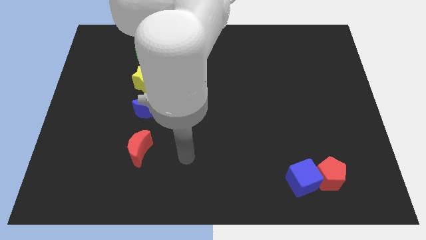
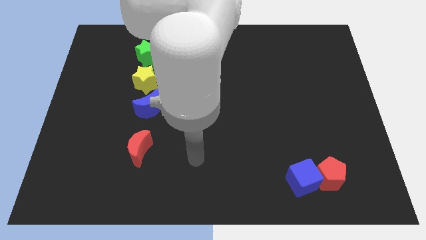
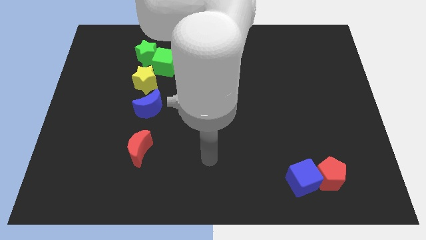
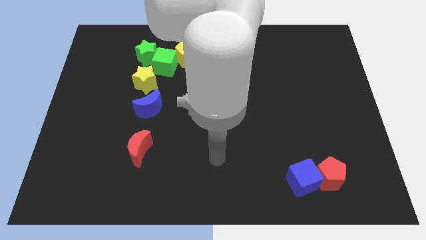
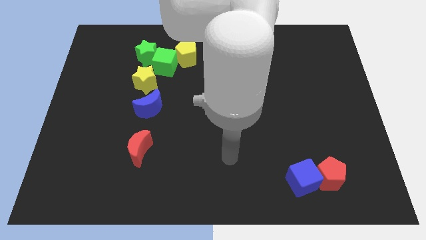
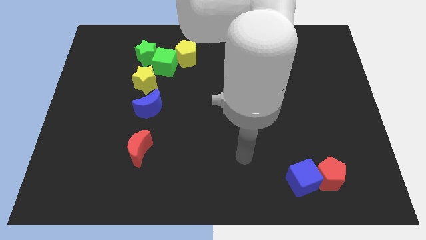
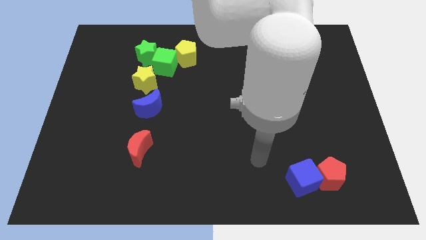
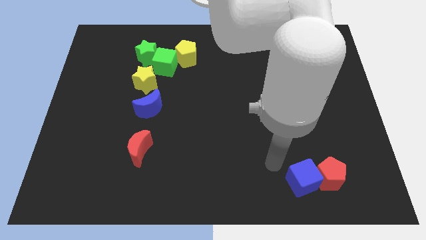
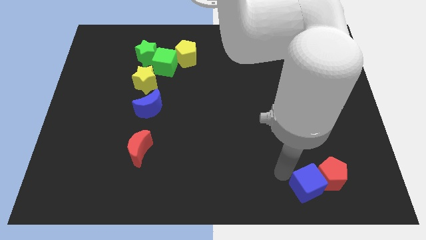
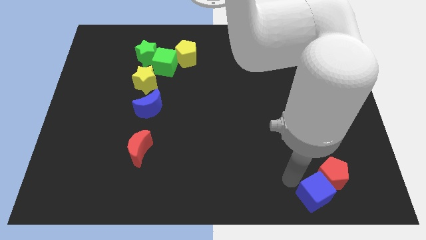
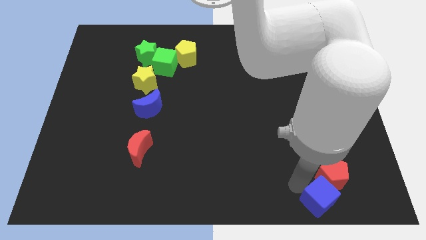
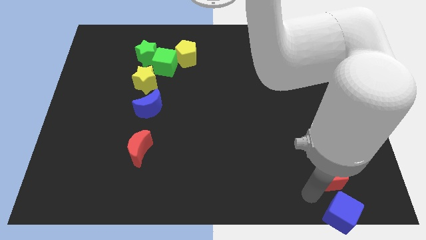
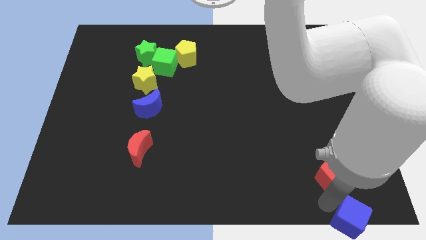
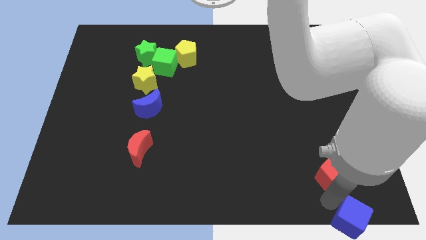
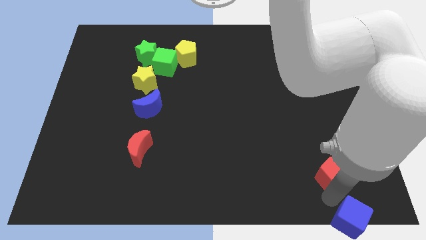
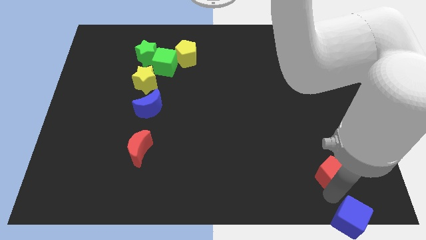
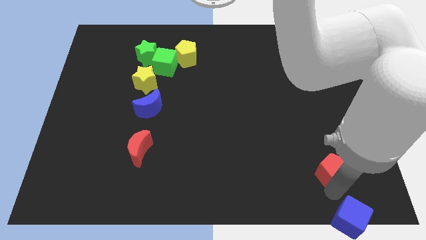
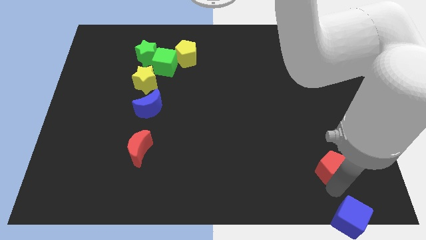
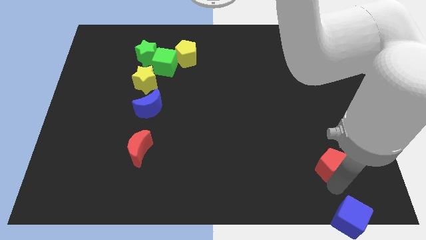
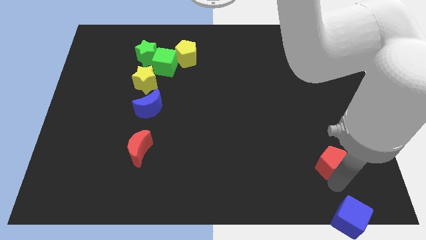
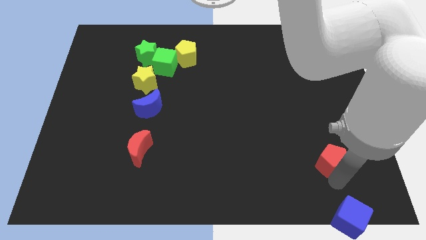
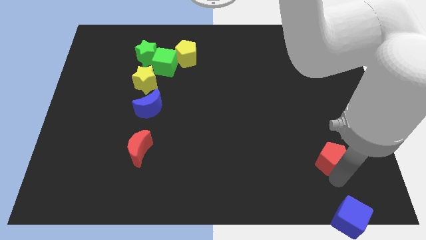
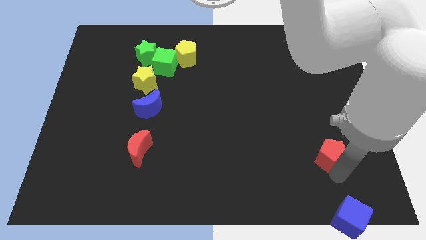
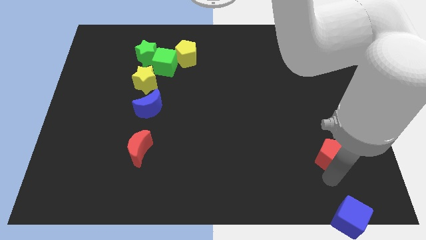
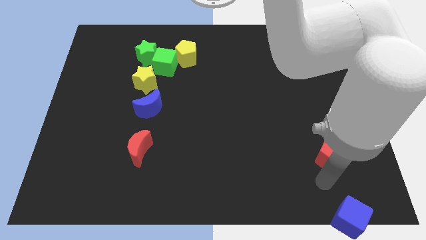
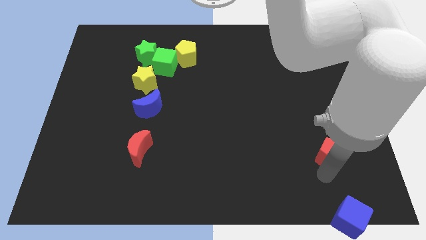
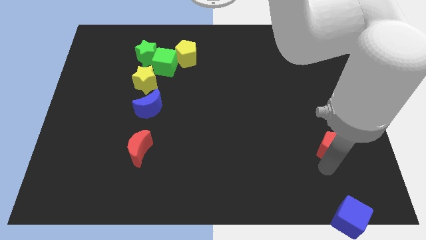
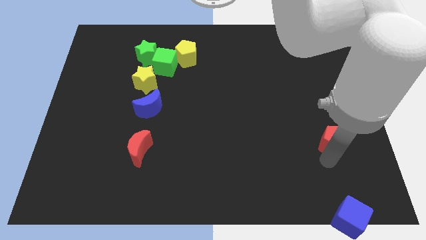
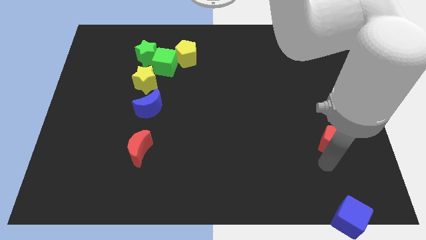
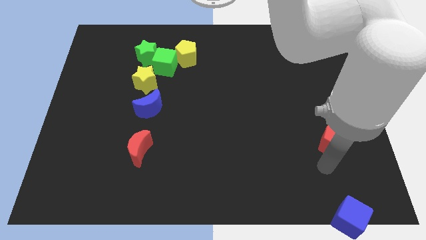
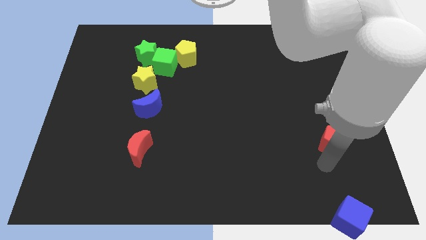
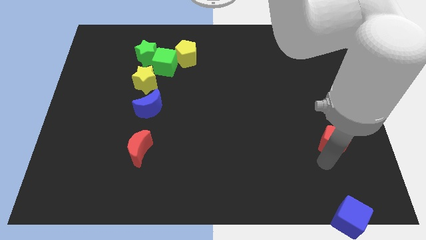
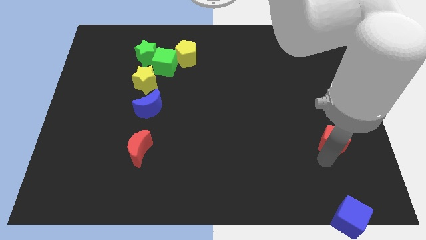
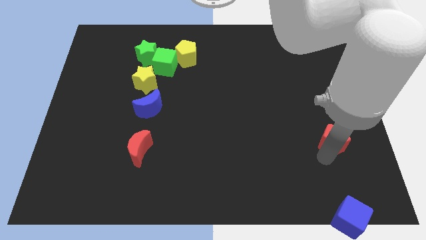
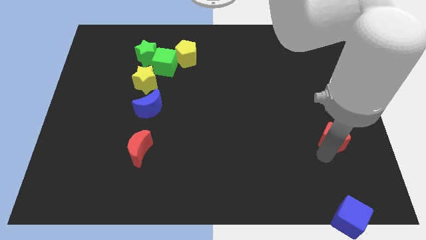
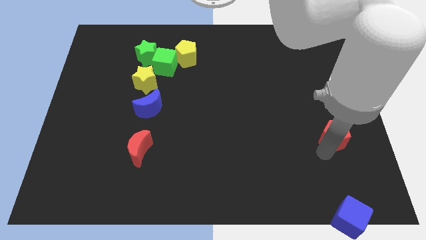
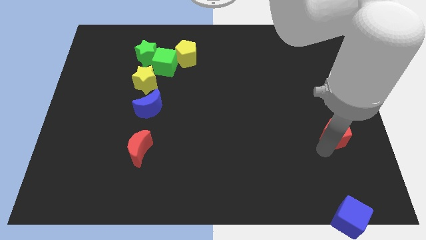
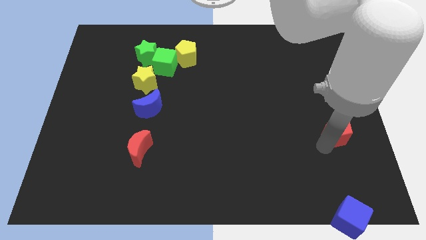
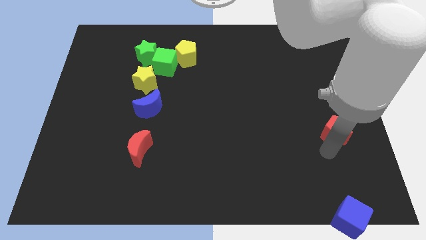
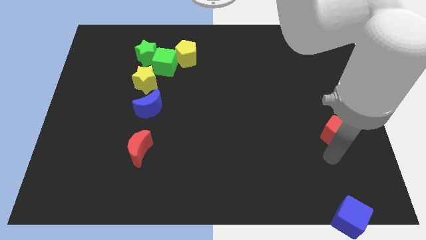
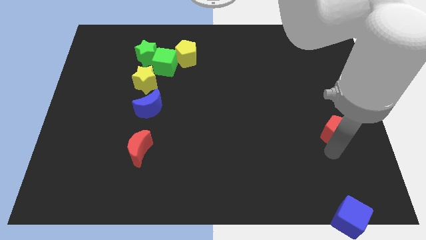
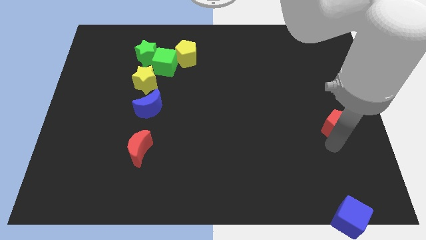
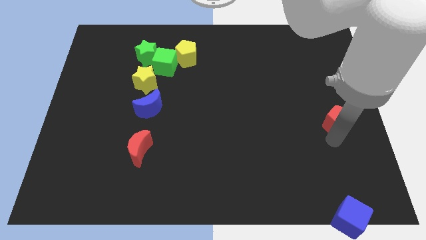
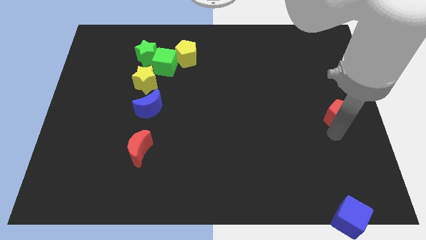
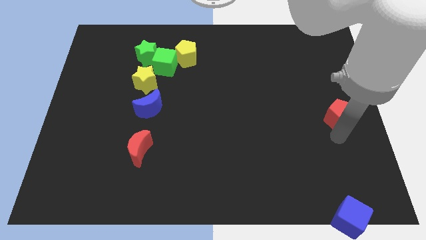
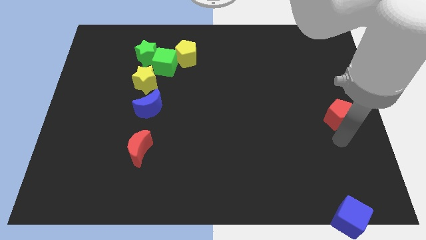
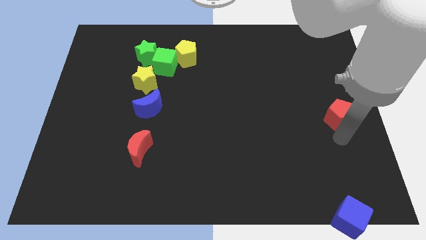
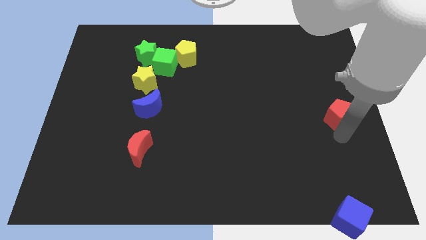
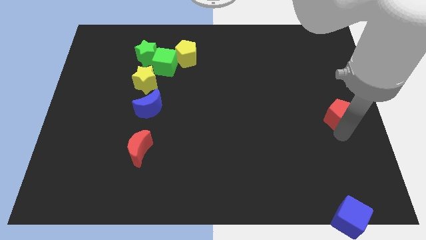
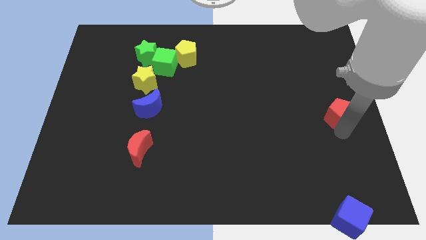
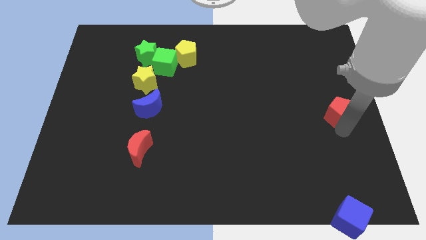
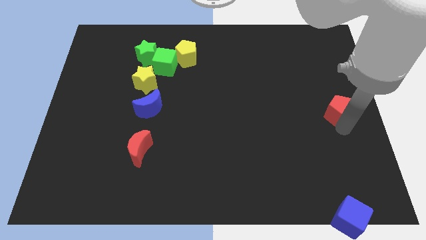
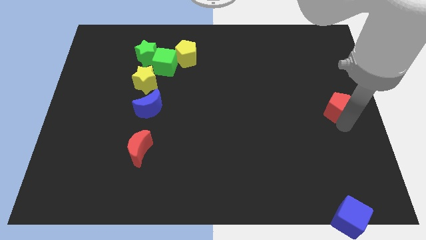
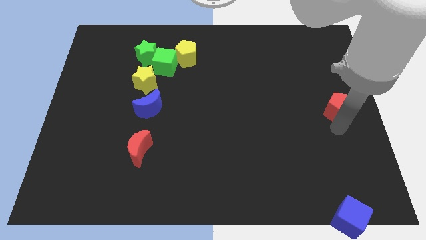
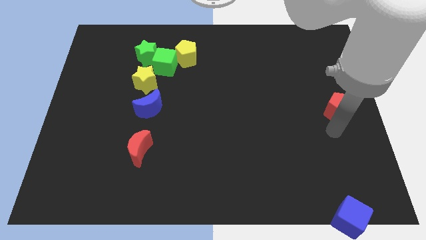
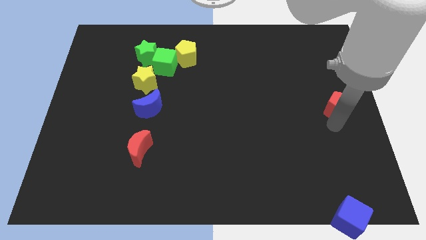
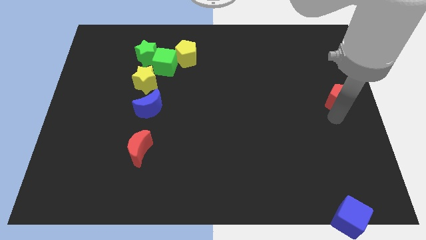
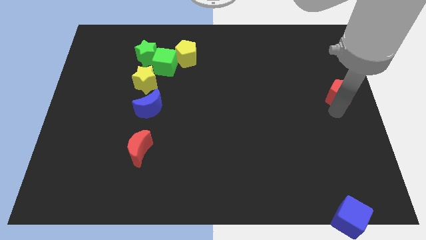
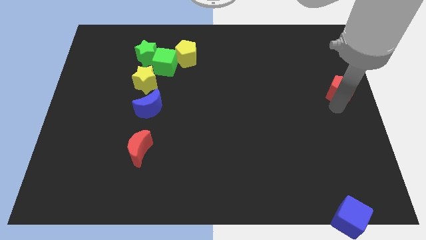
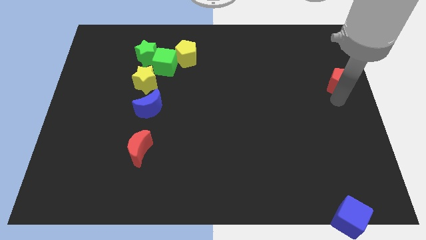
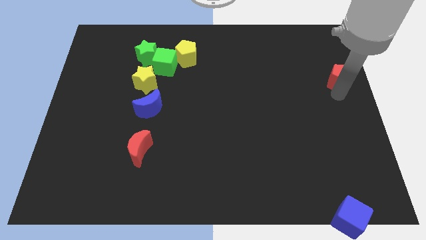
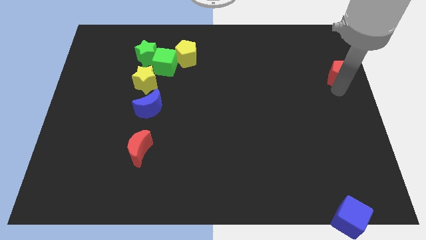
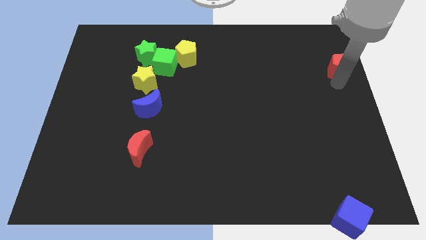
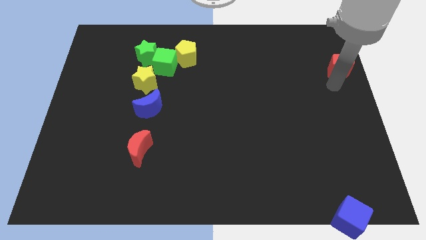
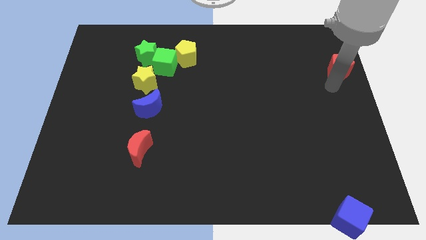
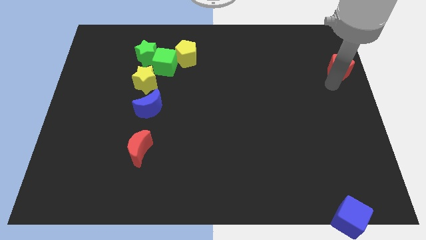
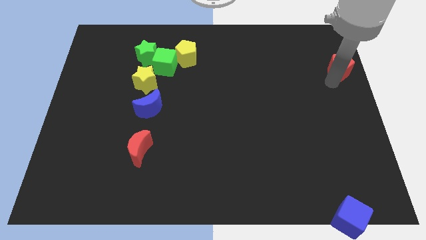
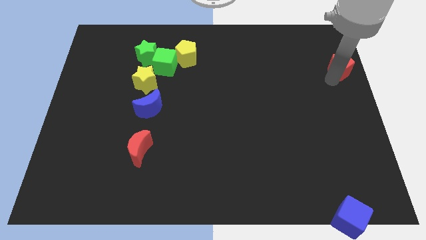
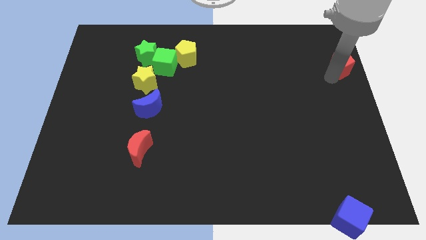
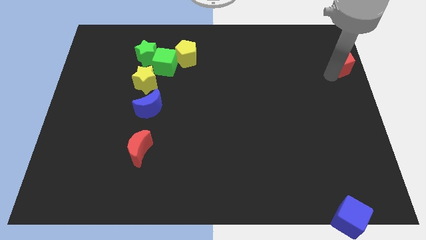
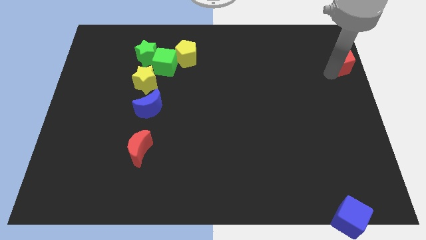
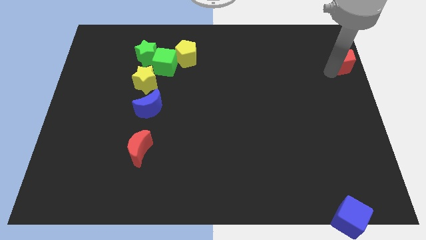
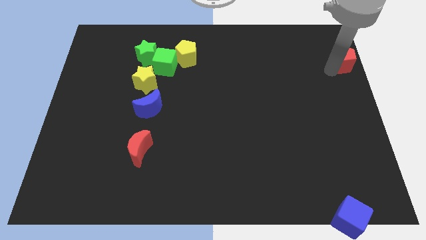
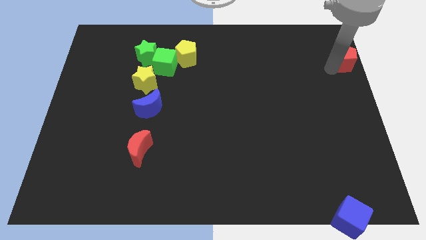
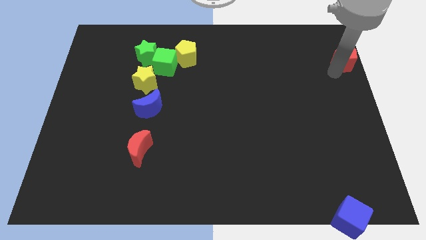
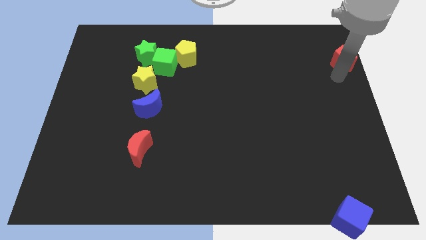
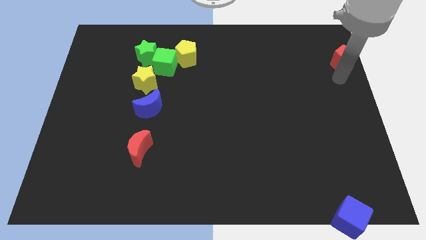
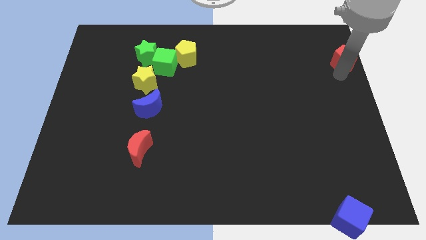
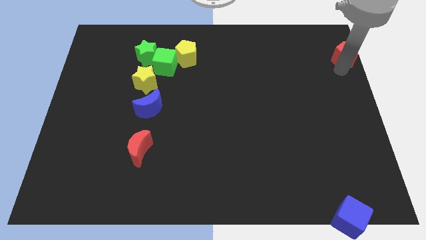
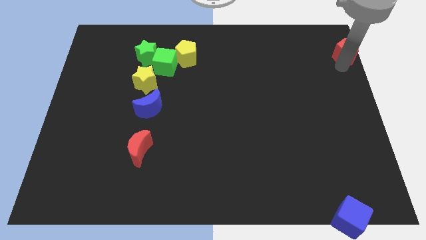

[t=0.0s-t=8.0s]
put the red pentagon to the top right of the board
